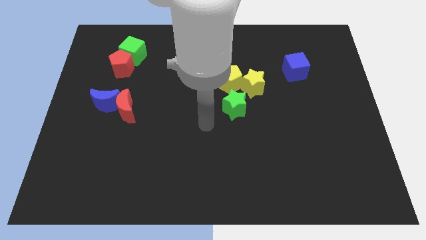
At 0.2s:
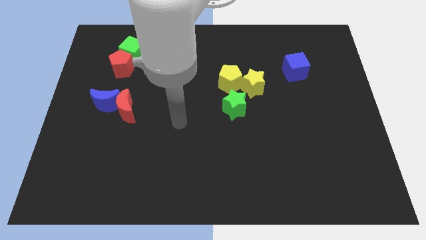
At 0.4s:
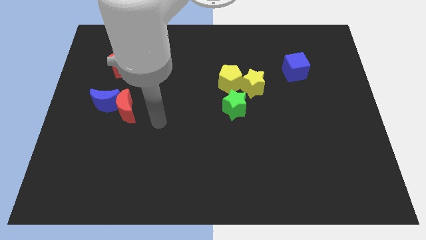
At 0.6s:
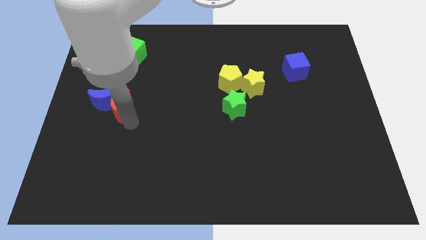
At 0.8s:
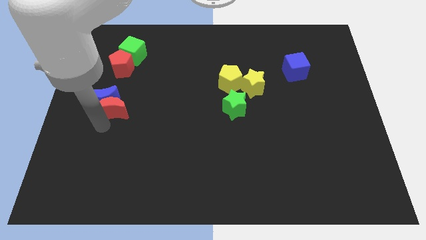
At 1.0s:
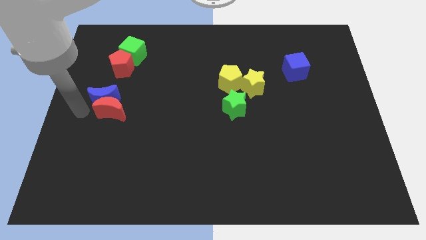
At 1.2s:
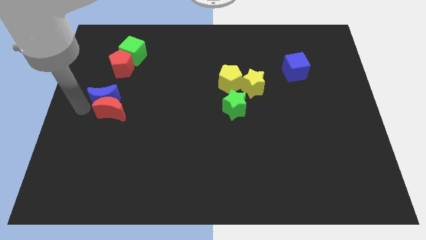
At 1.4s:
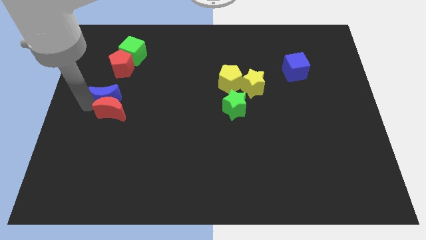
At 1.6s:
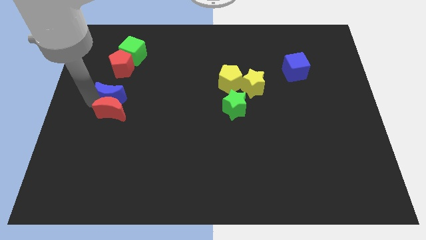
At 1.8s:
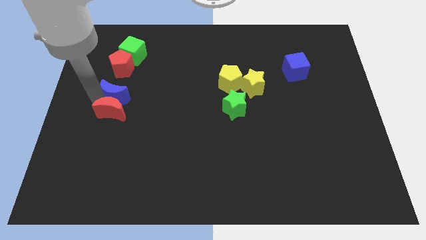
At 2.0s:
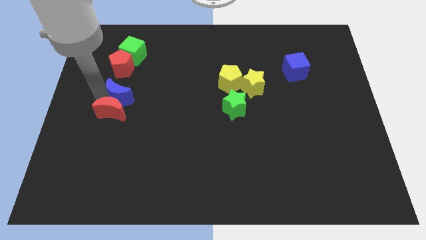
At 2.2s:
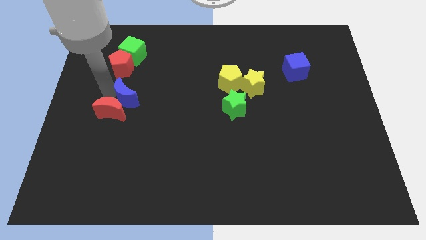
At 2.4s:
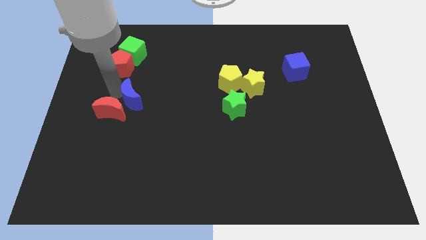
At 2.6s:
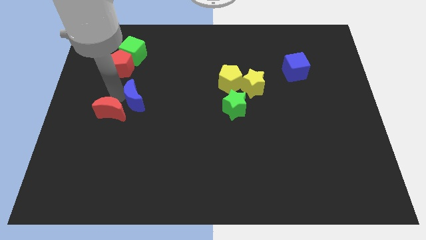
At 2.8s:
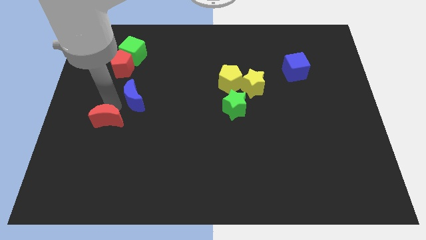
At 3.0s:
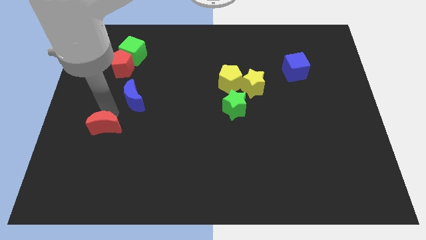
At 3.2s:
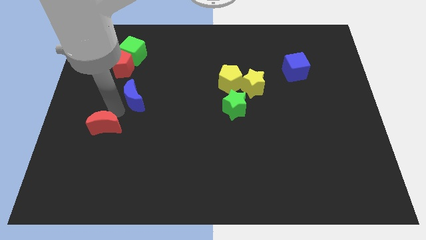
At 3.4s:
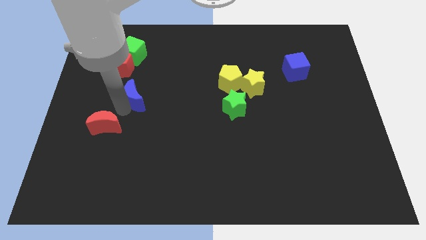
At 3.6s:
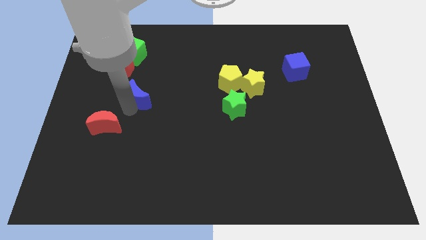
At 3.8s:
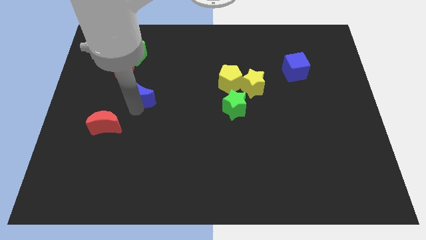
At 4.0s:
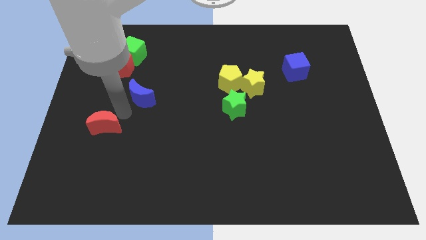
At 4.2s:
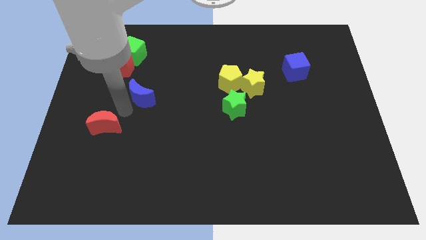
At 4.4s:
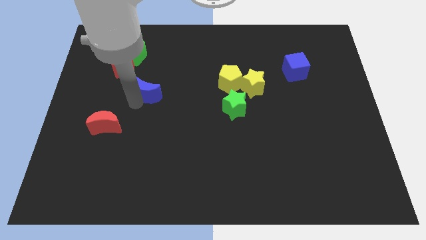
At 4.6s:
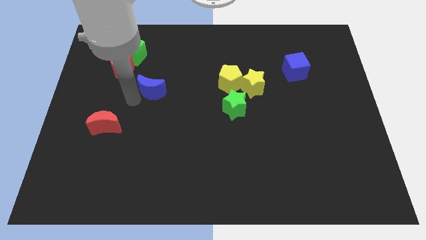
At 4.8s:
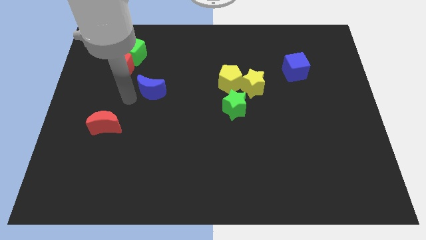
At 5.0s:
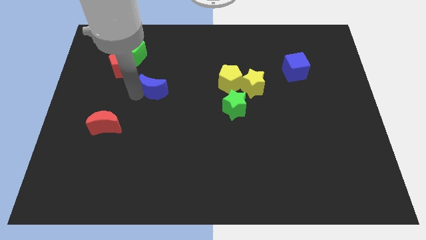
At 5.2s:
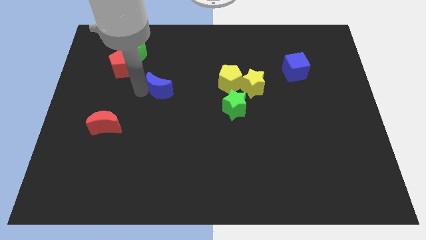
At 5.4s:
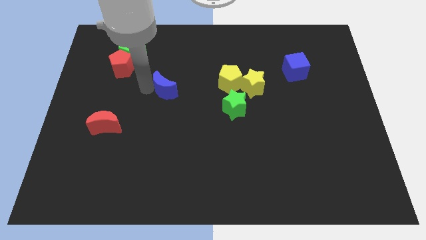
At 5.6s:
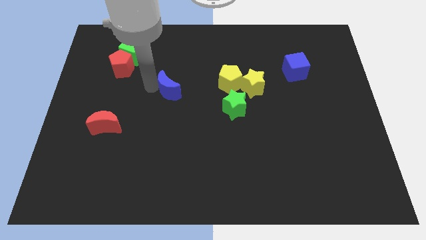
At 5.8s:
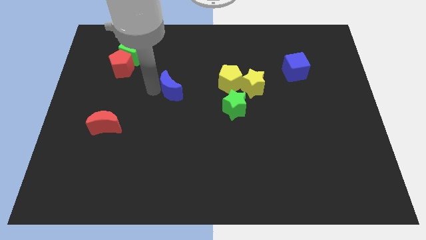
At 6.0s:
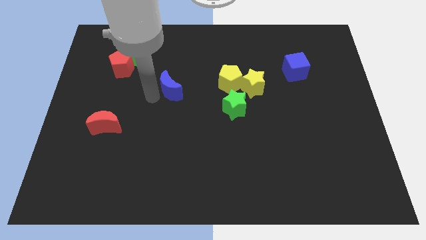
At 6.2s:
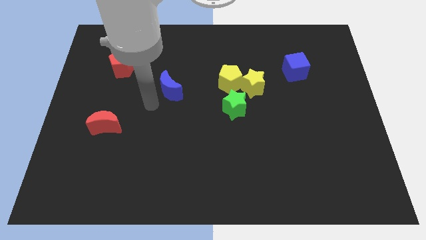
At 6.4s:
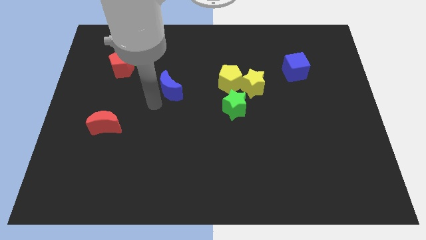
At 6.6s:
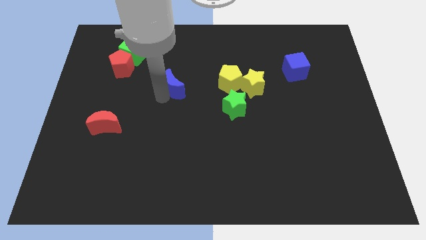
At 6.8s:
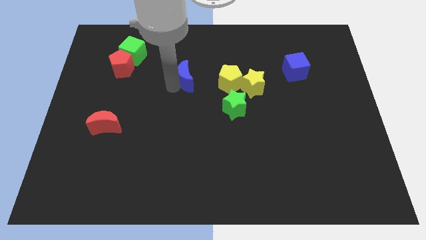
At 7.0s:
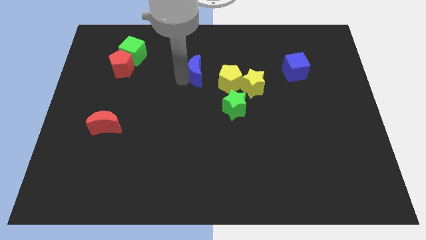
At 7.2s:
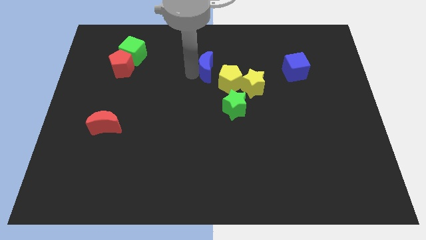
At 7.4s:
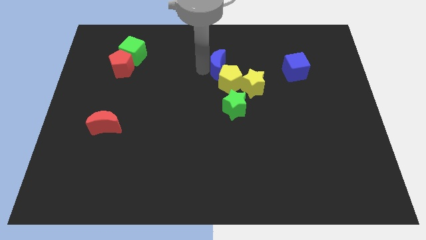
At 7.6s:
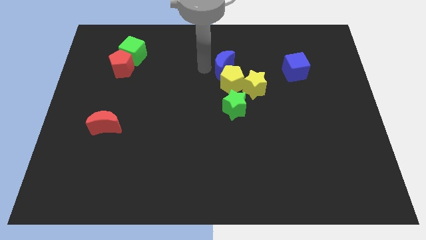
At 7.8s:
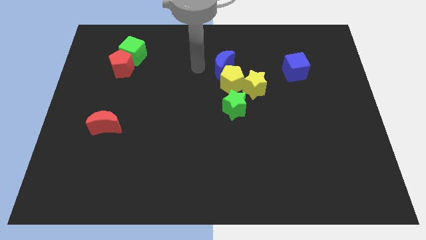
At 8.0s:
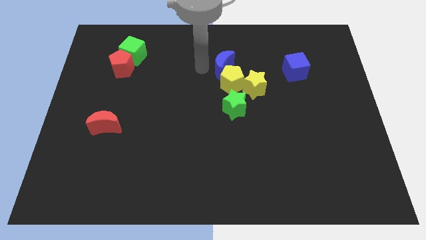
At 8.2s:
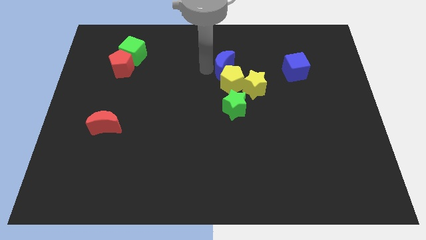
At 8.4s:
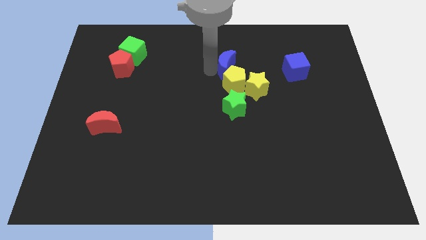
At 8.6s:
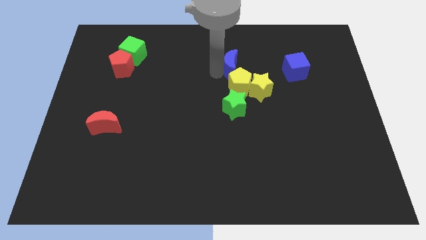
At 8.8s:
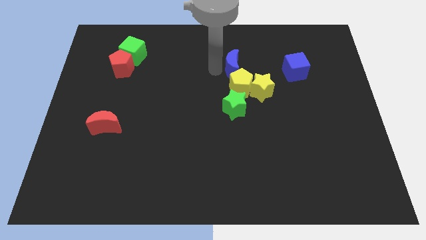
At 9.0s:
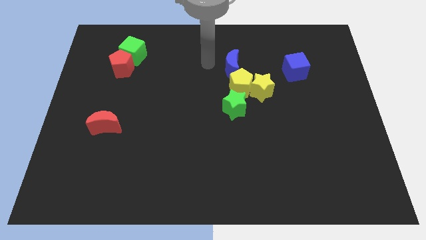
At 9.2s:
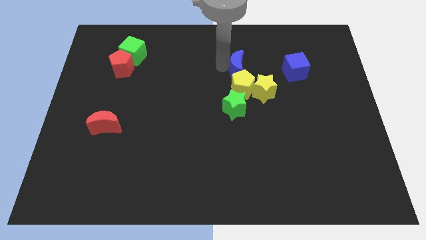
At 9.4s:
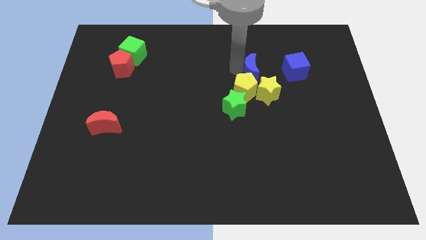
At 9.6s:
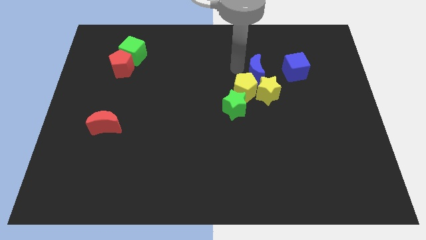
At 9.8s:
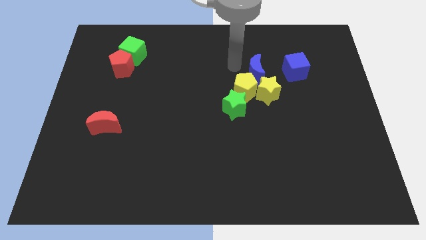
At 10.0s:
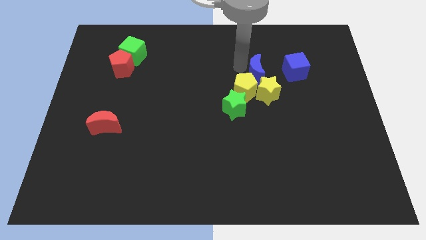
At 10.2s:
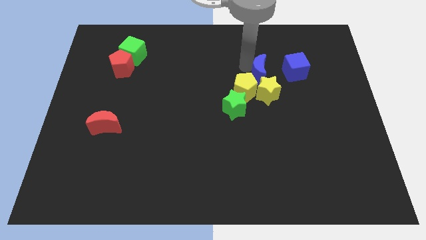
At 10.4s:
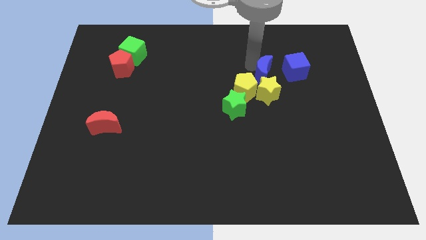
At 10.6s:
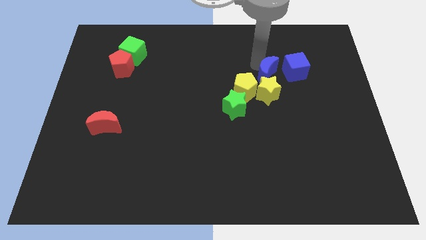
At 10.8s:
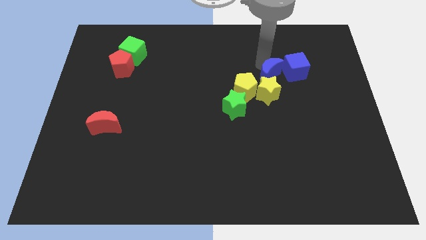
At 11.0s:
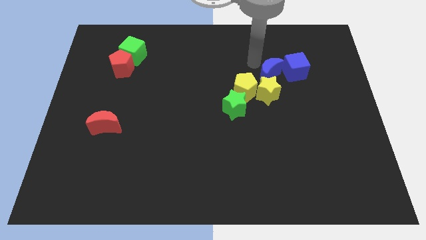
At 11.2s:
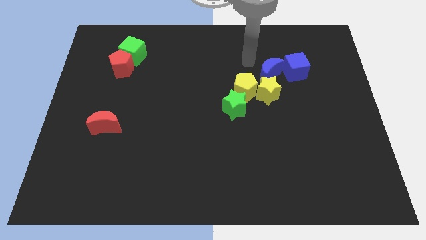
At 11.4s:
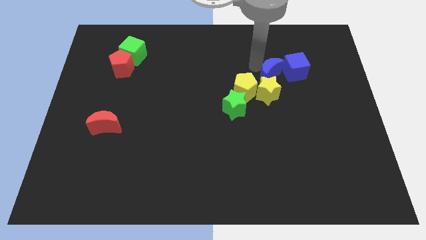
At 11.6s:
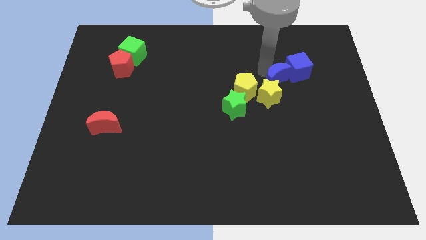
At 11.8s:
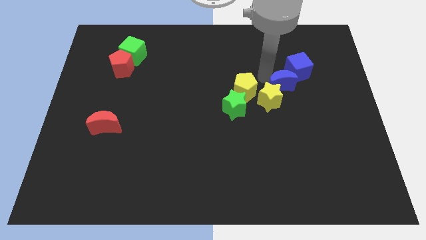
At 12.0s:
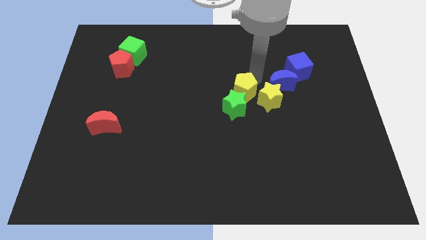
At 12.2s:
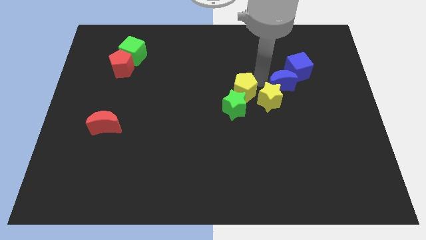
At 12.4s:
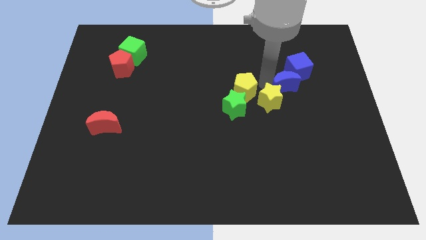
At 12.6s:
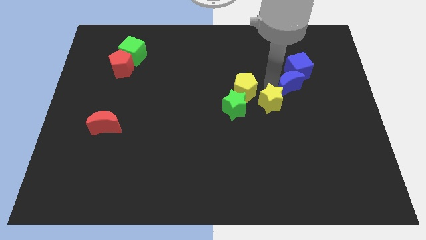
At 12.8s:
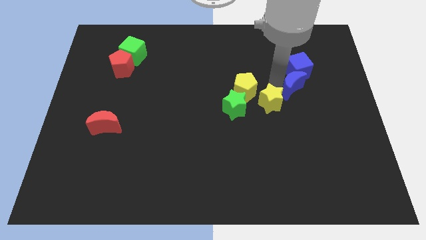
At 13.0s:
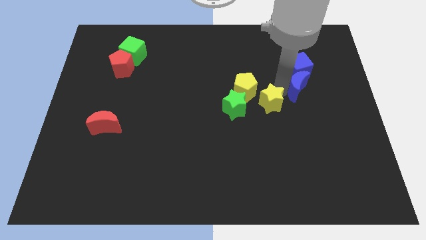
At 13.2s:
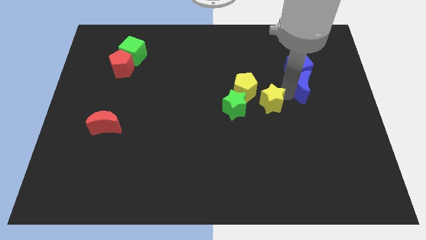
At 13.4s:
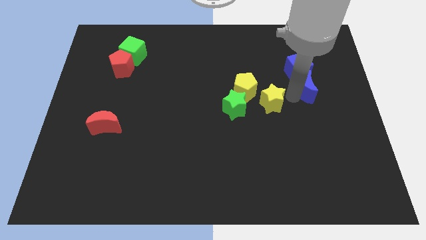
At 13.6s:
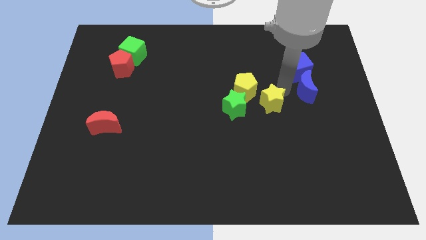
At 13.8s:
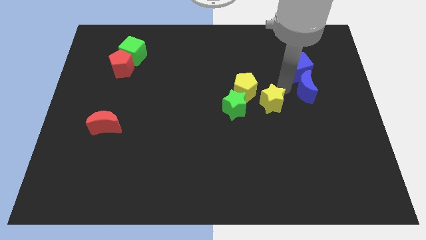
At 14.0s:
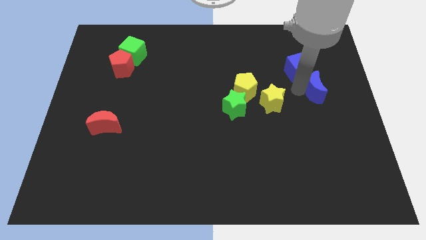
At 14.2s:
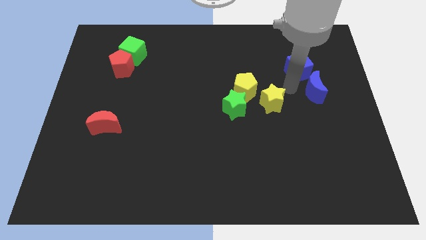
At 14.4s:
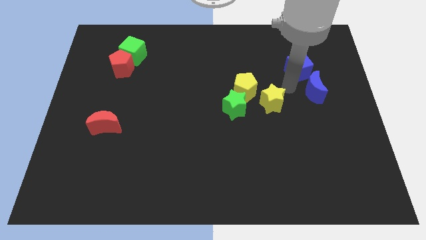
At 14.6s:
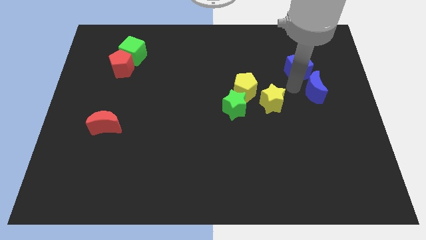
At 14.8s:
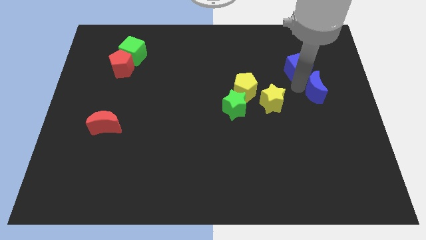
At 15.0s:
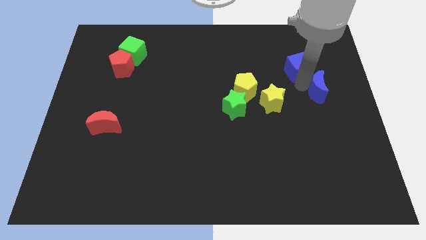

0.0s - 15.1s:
put the blue moon to the center right
